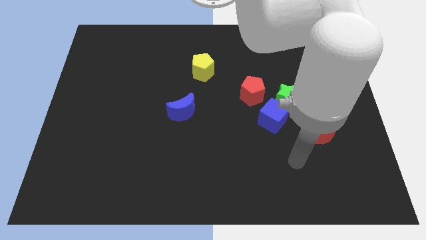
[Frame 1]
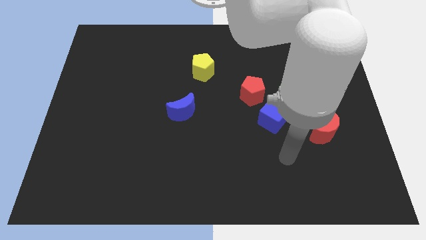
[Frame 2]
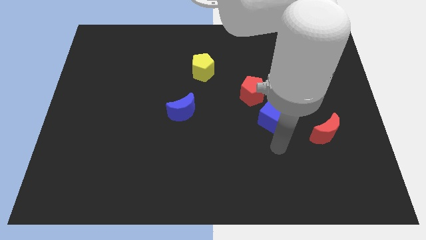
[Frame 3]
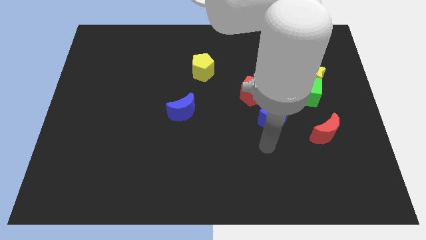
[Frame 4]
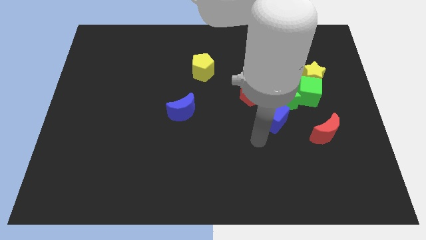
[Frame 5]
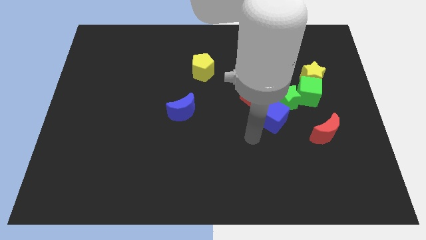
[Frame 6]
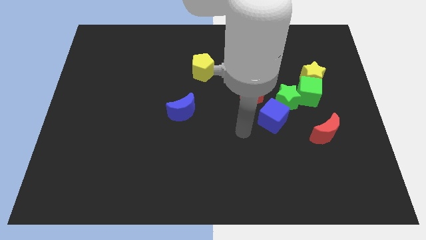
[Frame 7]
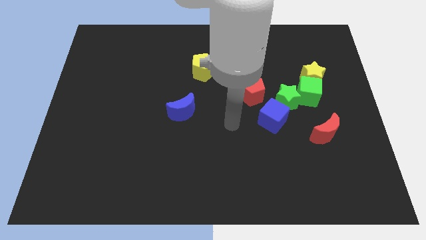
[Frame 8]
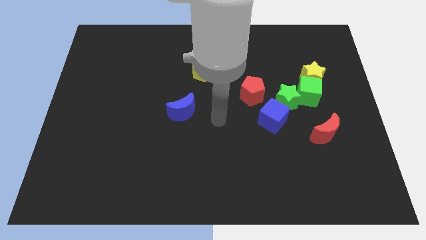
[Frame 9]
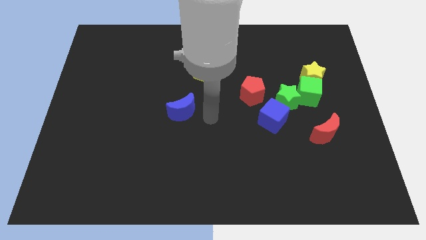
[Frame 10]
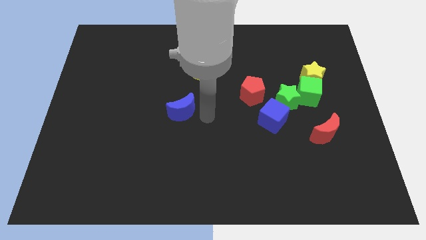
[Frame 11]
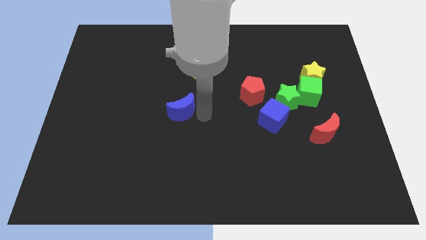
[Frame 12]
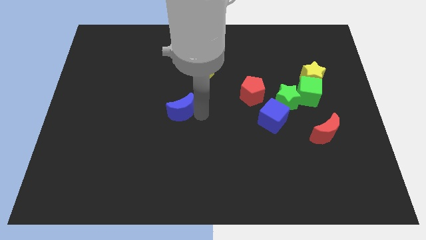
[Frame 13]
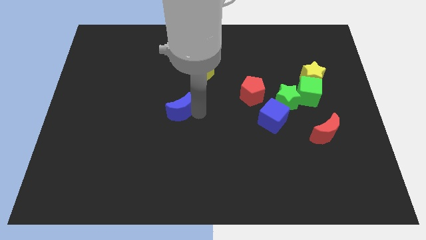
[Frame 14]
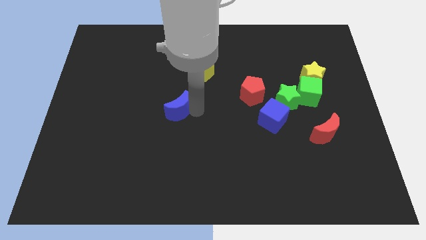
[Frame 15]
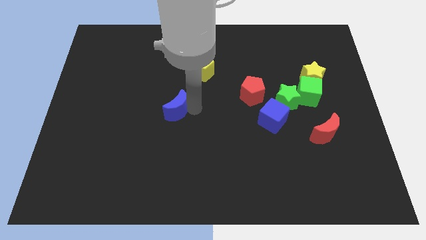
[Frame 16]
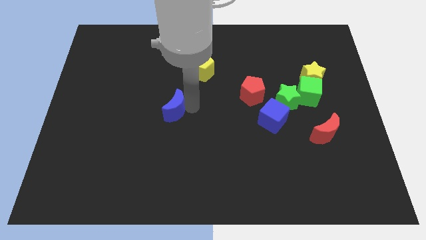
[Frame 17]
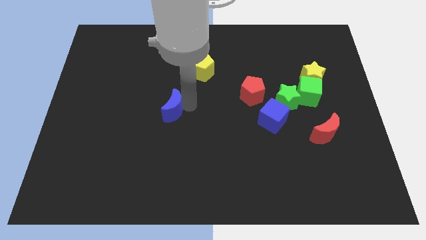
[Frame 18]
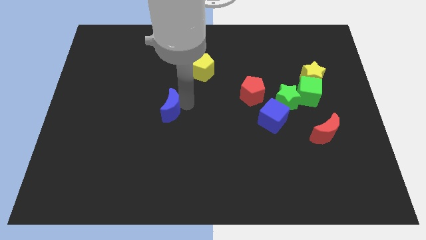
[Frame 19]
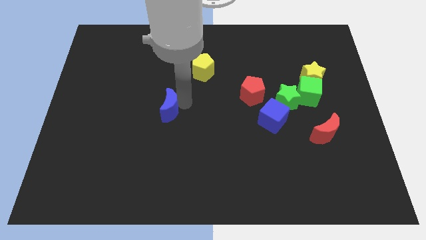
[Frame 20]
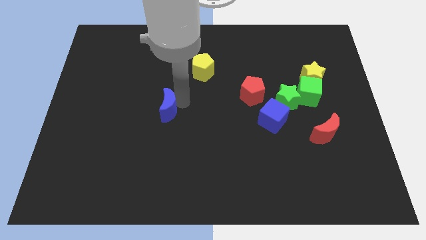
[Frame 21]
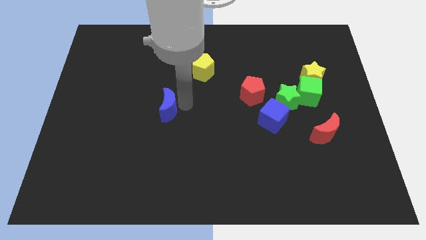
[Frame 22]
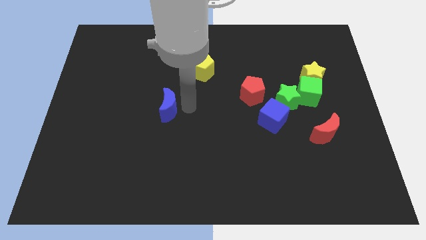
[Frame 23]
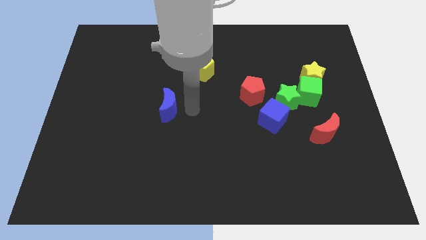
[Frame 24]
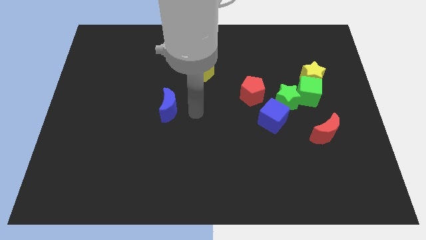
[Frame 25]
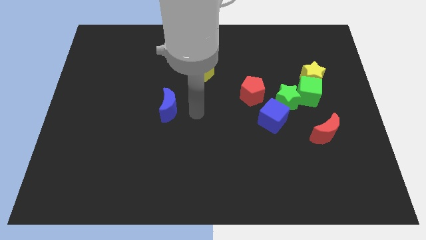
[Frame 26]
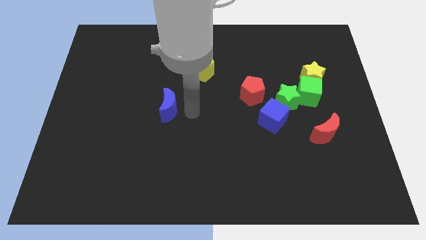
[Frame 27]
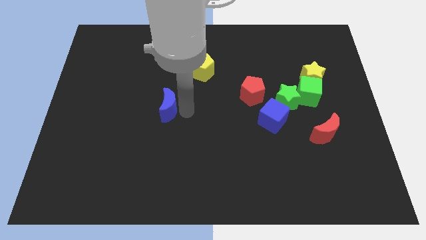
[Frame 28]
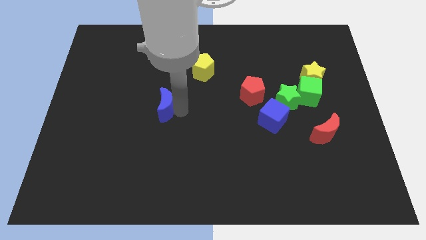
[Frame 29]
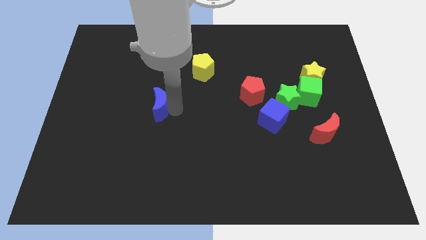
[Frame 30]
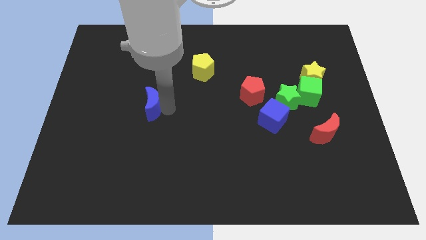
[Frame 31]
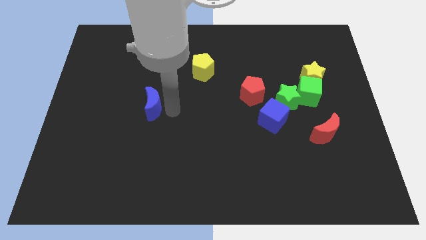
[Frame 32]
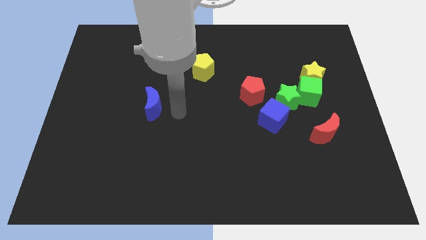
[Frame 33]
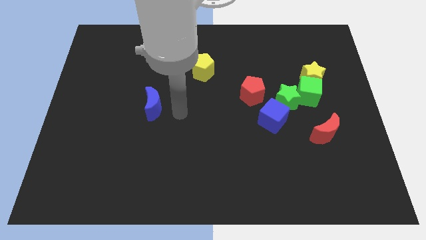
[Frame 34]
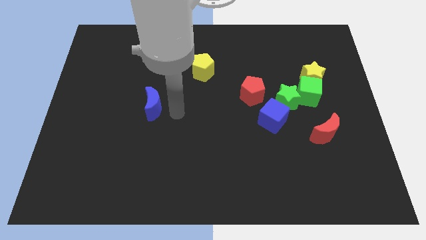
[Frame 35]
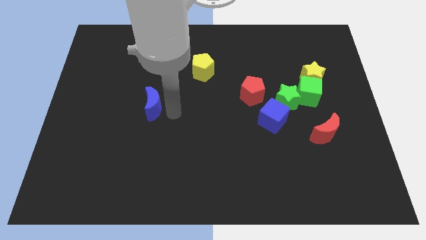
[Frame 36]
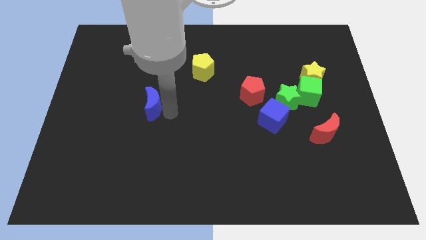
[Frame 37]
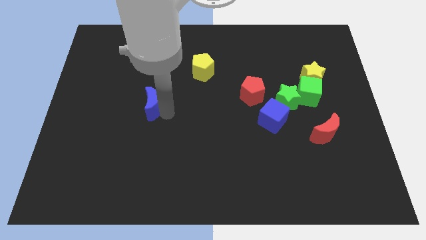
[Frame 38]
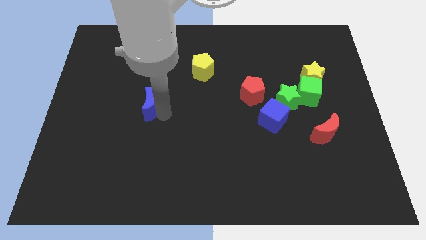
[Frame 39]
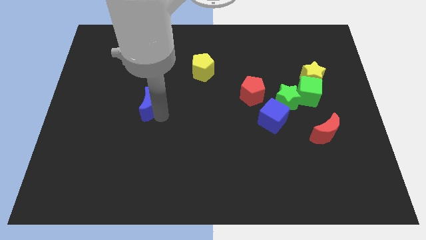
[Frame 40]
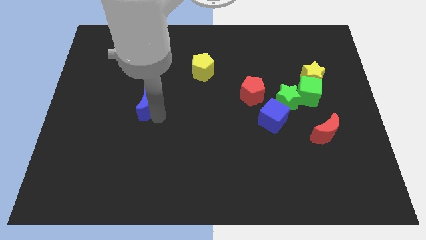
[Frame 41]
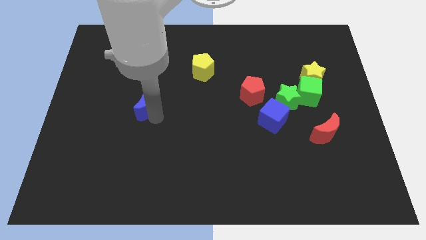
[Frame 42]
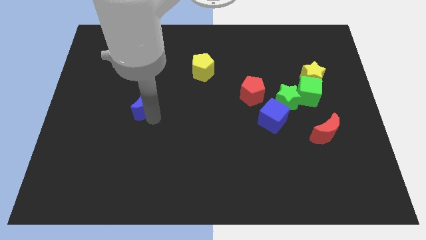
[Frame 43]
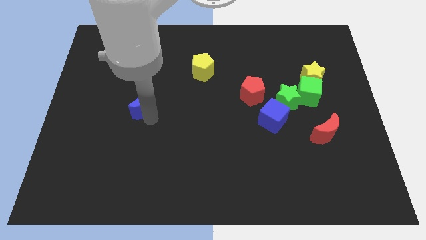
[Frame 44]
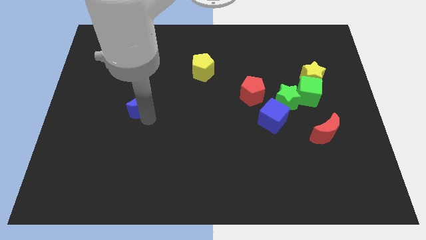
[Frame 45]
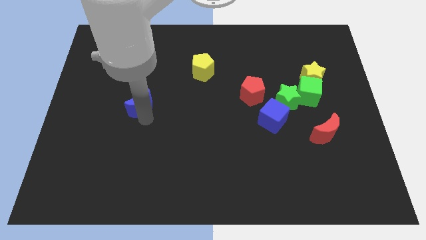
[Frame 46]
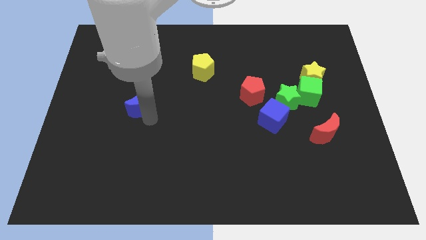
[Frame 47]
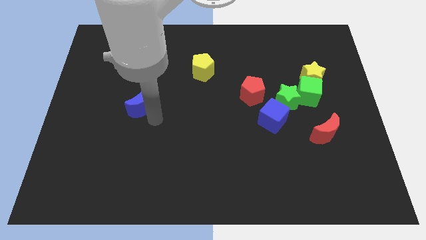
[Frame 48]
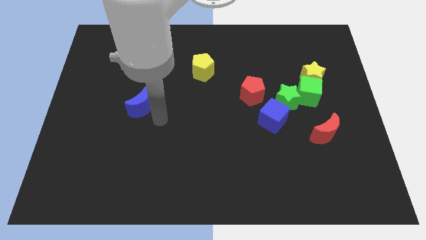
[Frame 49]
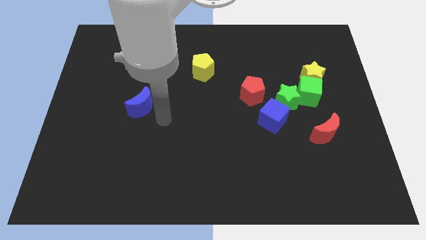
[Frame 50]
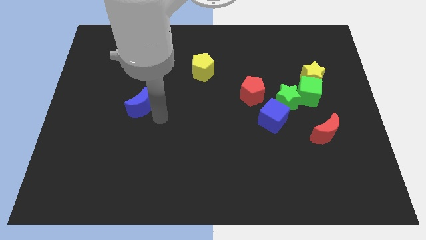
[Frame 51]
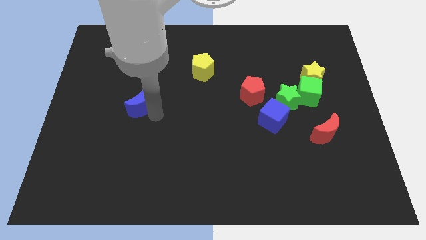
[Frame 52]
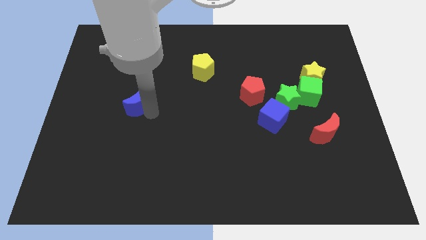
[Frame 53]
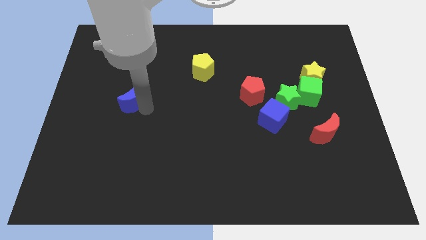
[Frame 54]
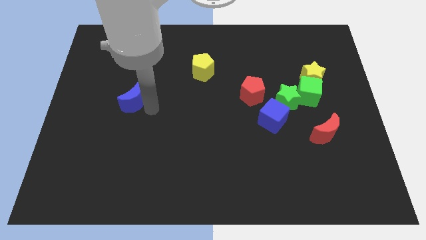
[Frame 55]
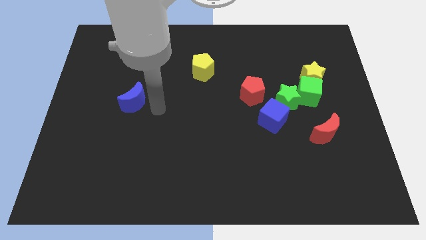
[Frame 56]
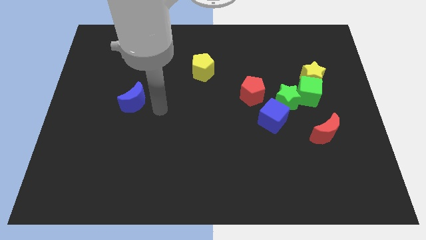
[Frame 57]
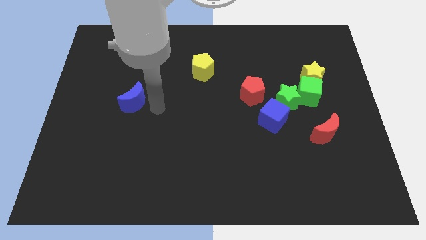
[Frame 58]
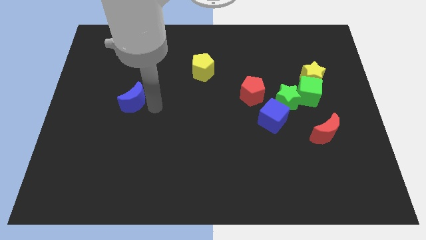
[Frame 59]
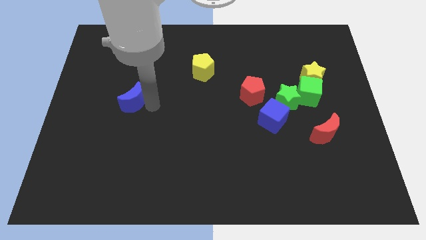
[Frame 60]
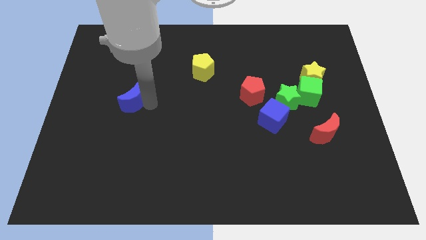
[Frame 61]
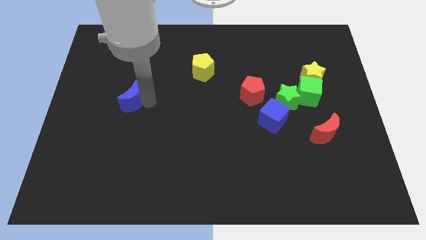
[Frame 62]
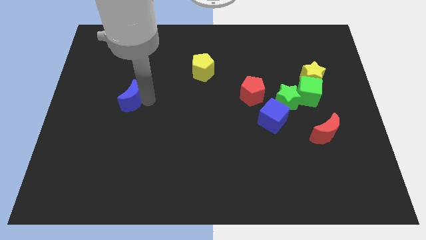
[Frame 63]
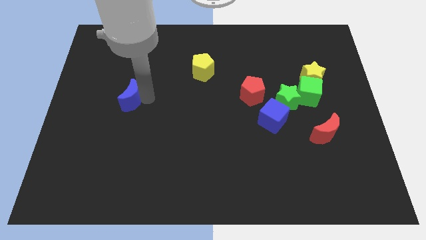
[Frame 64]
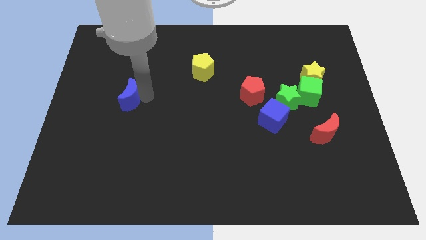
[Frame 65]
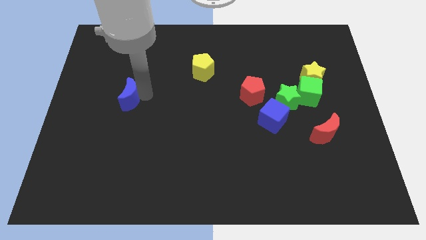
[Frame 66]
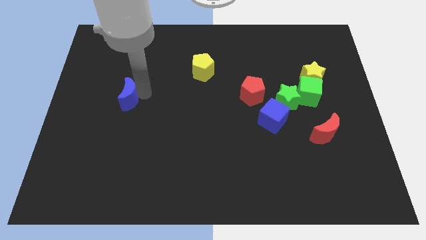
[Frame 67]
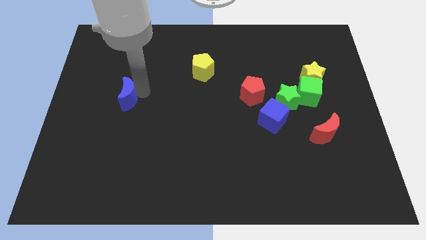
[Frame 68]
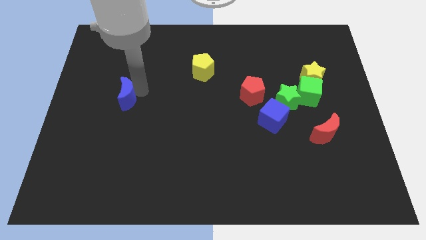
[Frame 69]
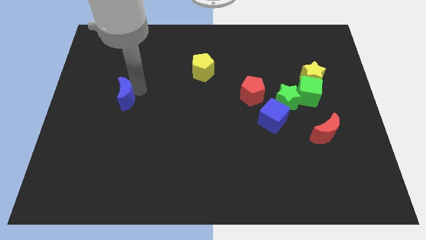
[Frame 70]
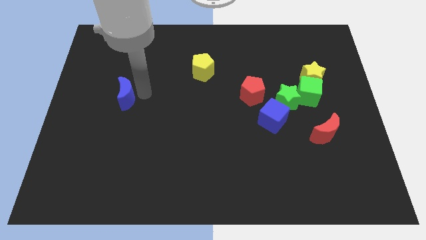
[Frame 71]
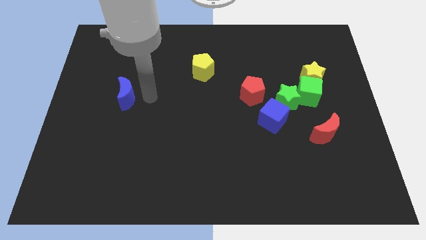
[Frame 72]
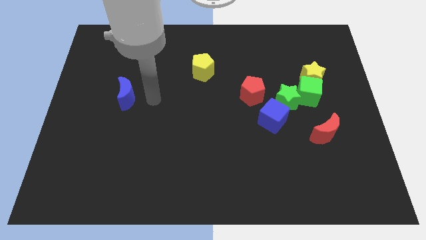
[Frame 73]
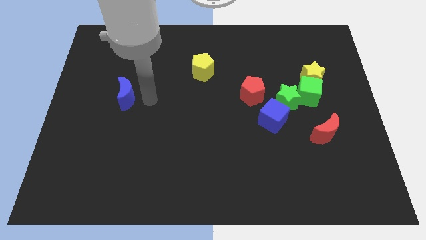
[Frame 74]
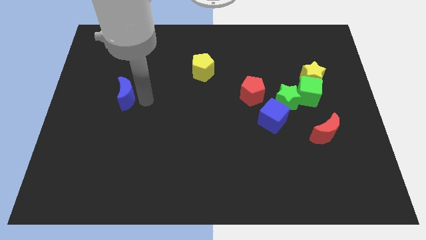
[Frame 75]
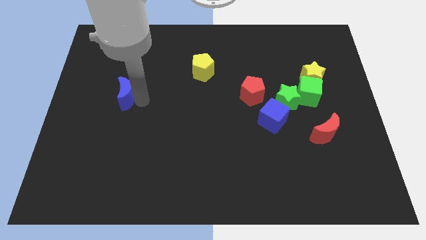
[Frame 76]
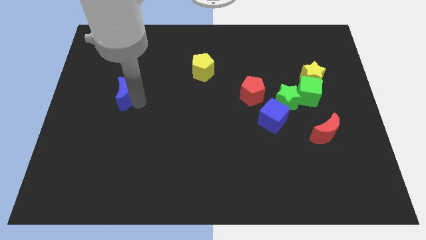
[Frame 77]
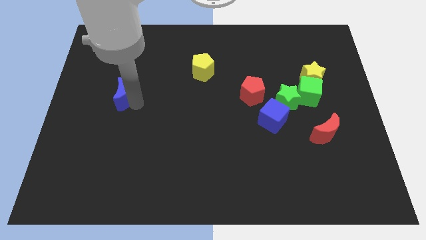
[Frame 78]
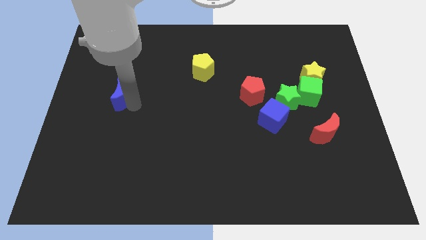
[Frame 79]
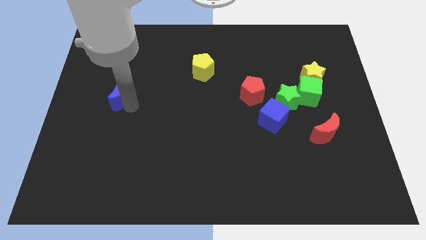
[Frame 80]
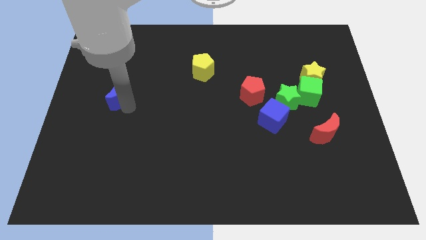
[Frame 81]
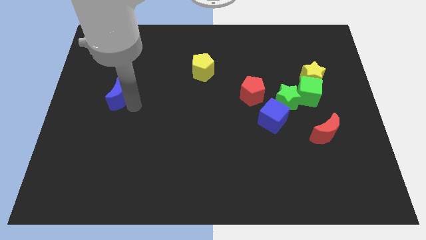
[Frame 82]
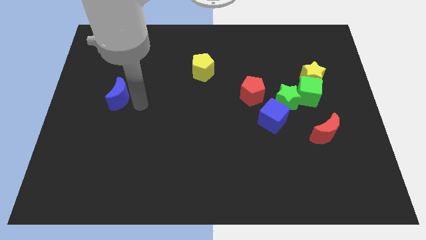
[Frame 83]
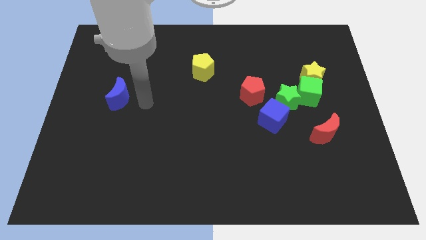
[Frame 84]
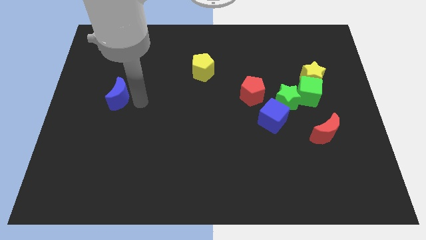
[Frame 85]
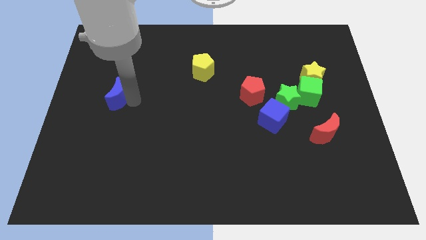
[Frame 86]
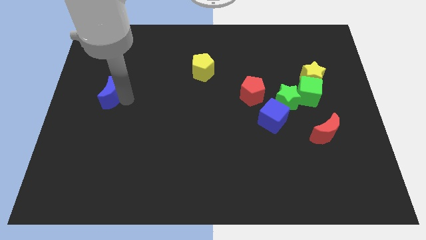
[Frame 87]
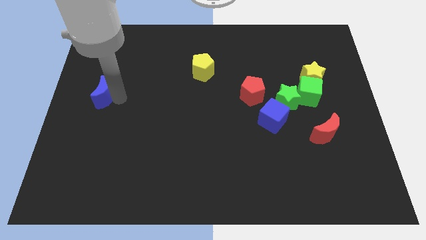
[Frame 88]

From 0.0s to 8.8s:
put the blue moon to the center left
